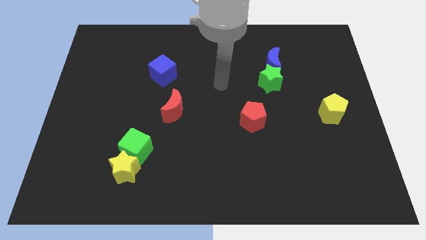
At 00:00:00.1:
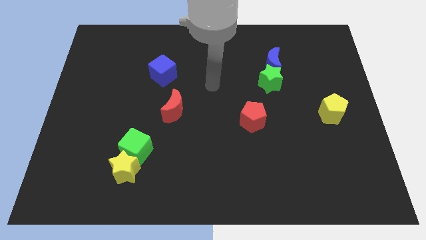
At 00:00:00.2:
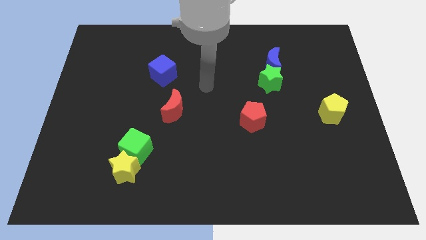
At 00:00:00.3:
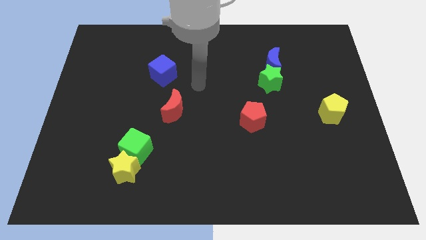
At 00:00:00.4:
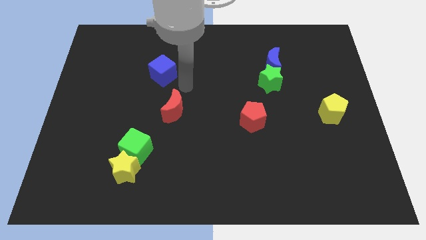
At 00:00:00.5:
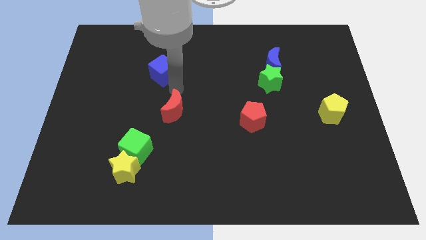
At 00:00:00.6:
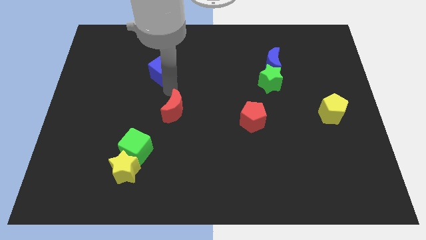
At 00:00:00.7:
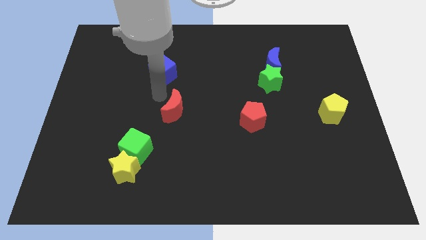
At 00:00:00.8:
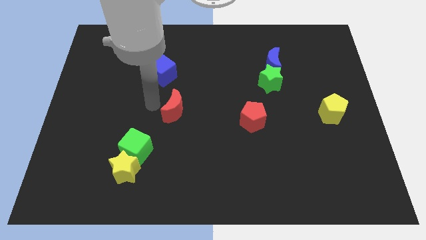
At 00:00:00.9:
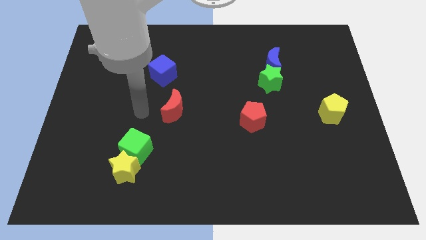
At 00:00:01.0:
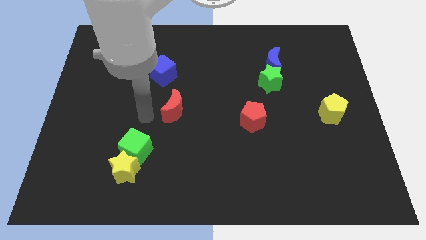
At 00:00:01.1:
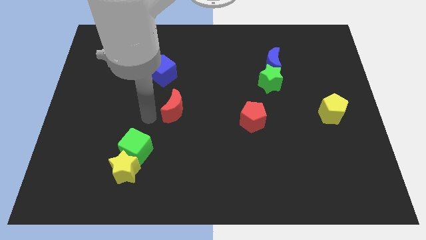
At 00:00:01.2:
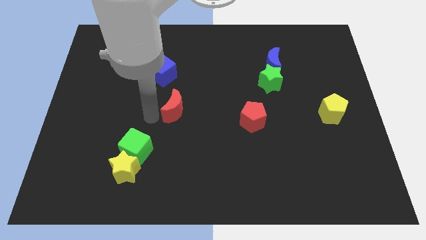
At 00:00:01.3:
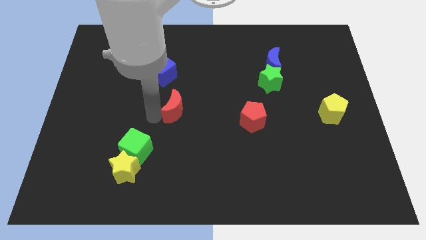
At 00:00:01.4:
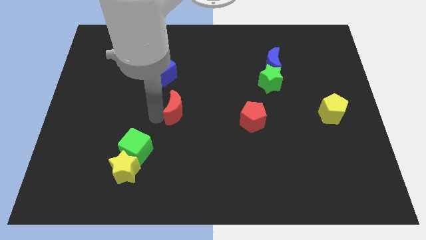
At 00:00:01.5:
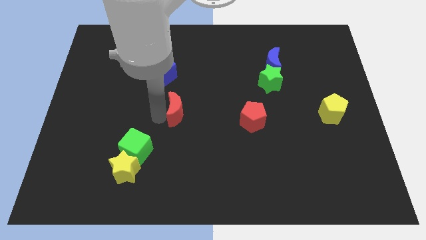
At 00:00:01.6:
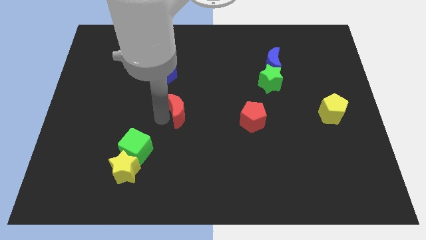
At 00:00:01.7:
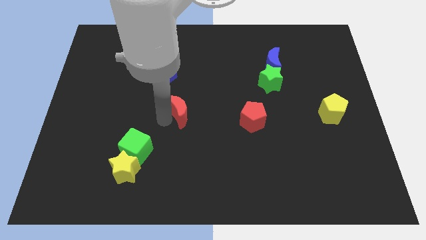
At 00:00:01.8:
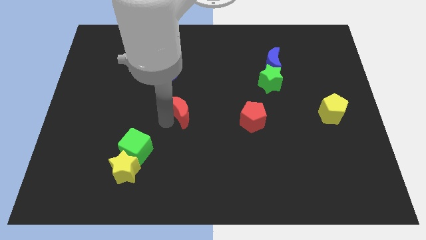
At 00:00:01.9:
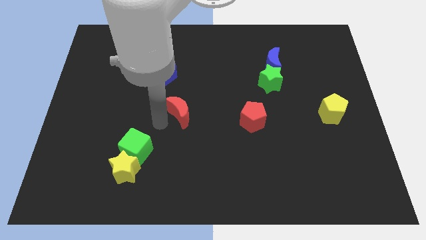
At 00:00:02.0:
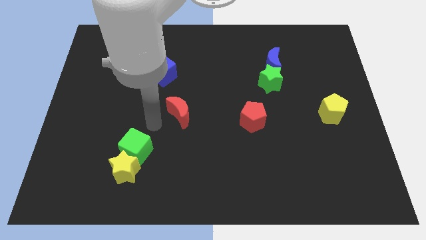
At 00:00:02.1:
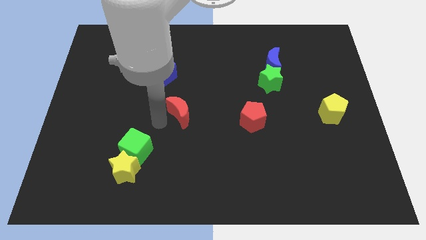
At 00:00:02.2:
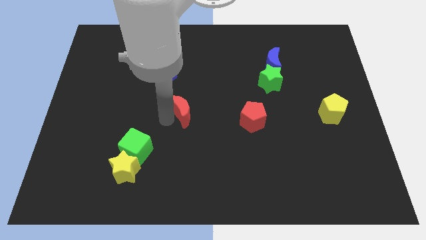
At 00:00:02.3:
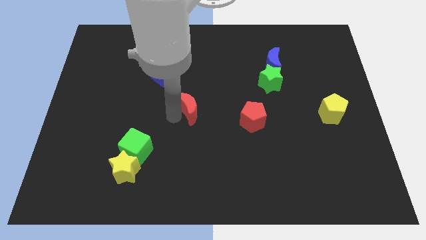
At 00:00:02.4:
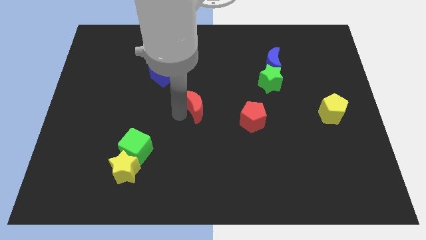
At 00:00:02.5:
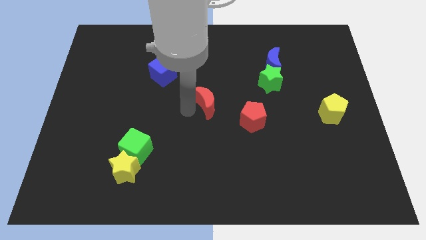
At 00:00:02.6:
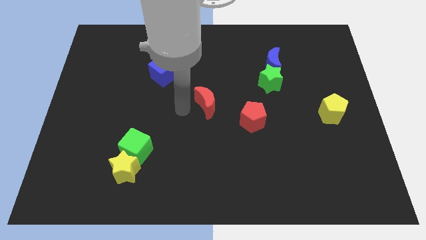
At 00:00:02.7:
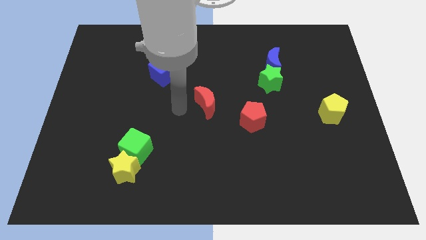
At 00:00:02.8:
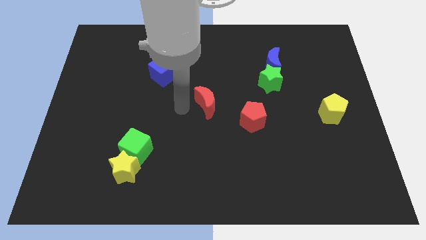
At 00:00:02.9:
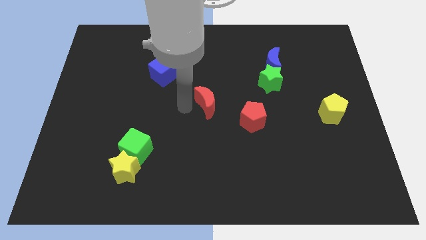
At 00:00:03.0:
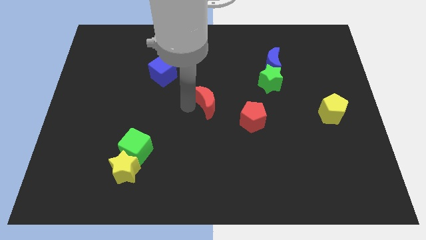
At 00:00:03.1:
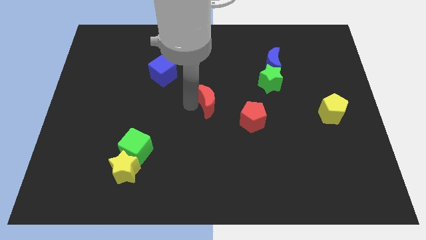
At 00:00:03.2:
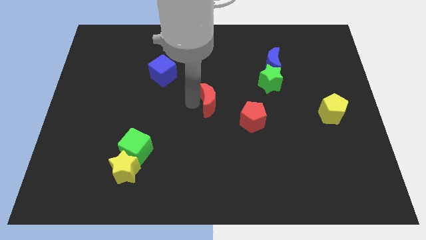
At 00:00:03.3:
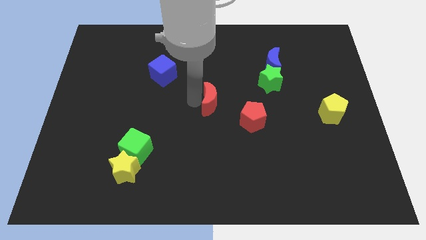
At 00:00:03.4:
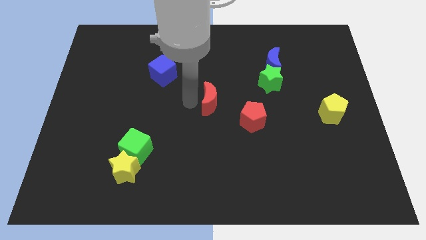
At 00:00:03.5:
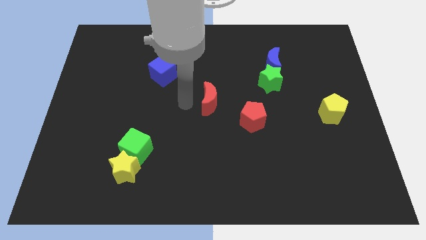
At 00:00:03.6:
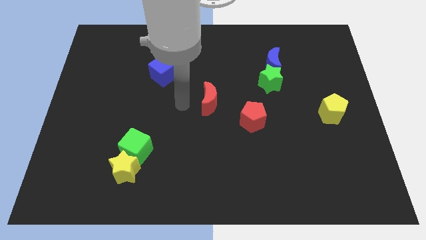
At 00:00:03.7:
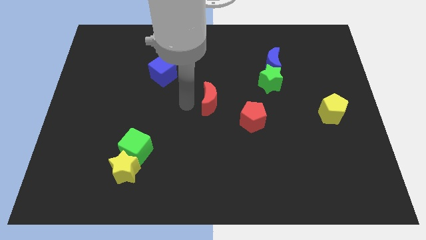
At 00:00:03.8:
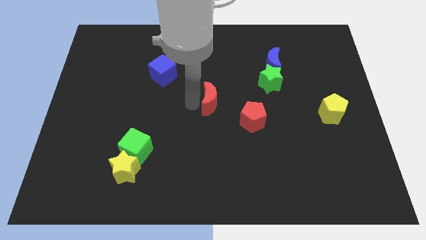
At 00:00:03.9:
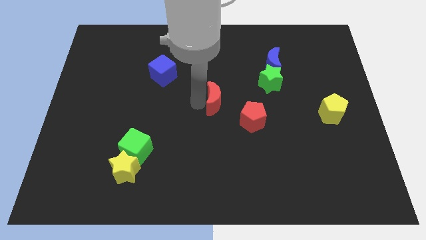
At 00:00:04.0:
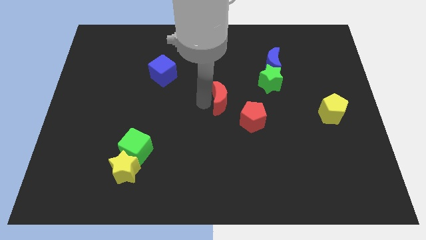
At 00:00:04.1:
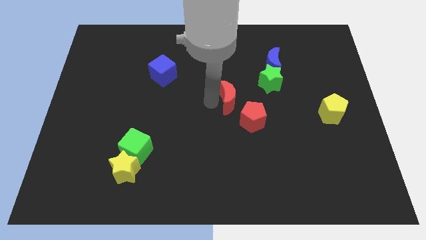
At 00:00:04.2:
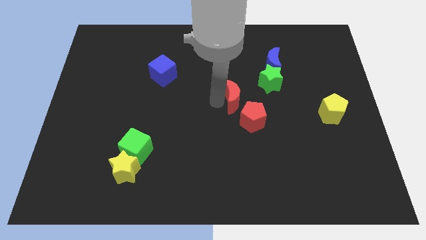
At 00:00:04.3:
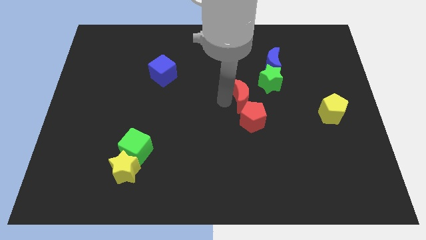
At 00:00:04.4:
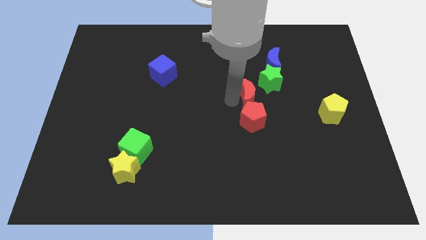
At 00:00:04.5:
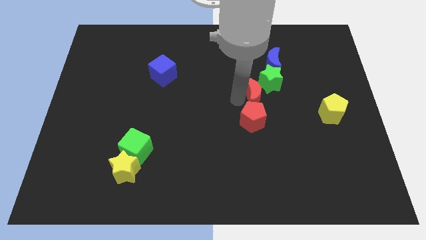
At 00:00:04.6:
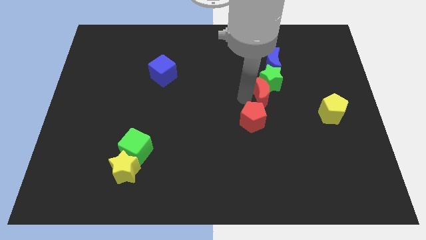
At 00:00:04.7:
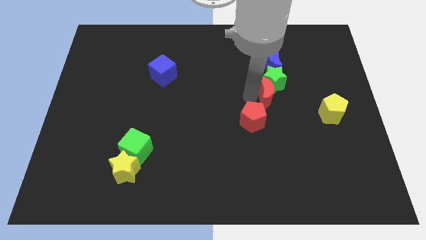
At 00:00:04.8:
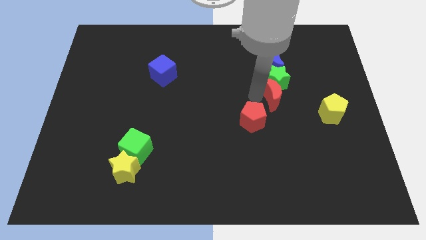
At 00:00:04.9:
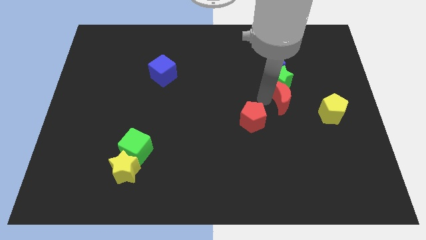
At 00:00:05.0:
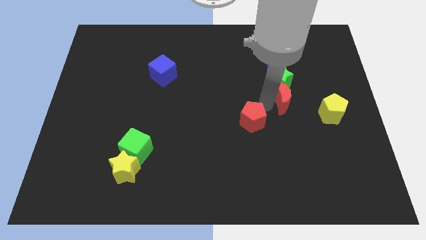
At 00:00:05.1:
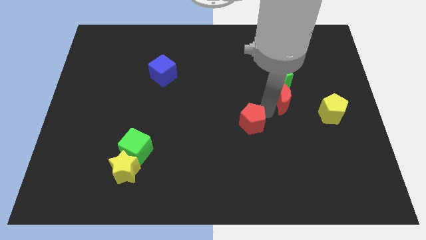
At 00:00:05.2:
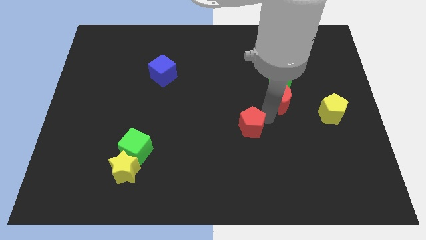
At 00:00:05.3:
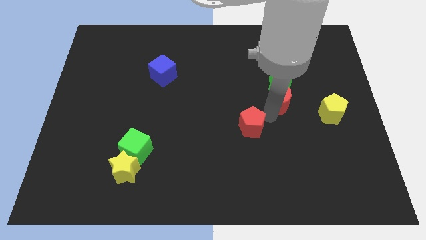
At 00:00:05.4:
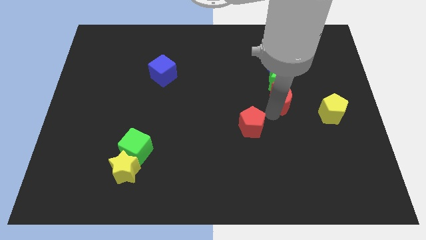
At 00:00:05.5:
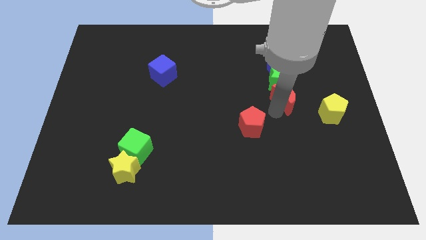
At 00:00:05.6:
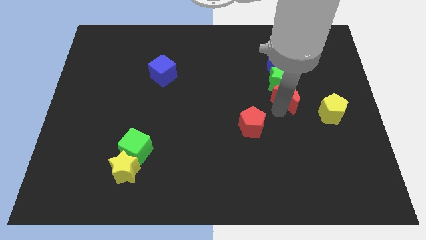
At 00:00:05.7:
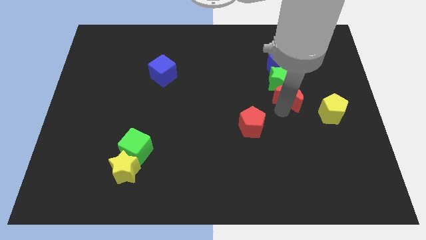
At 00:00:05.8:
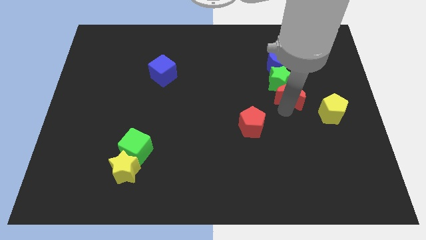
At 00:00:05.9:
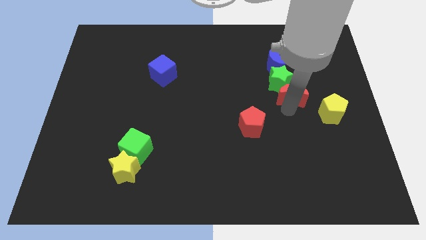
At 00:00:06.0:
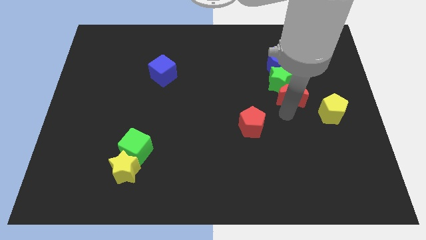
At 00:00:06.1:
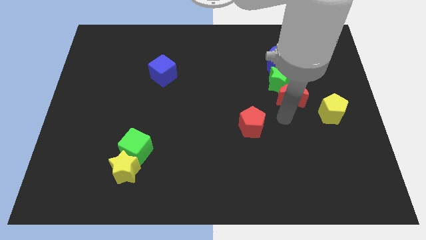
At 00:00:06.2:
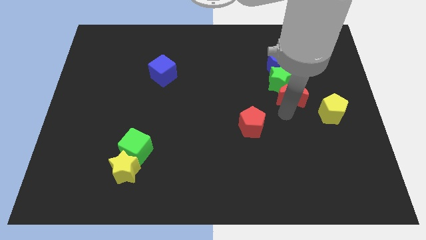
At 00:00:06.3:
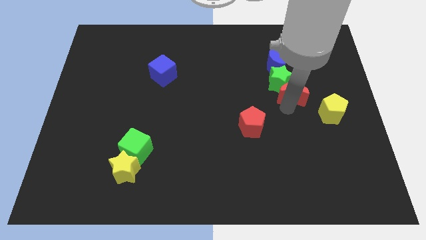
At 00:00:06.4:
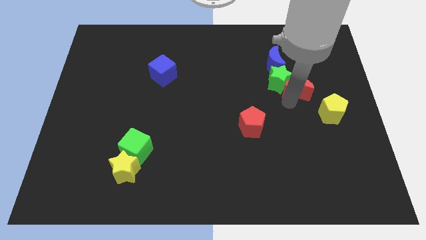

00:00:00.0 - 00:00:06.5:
move the red moon to the bottom right side of the blue moon

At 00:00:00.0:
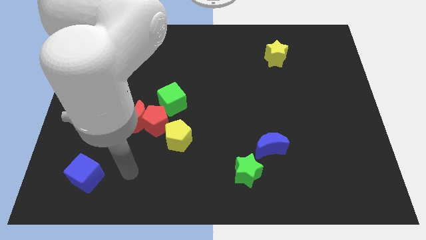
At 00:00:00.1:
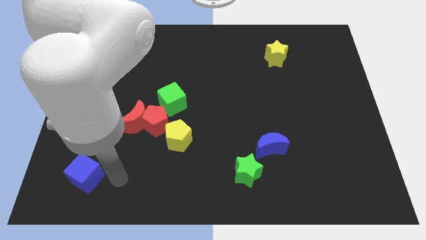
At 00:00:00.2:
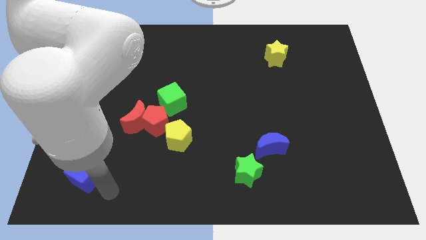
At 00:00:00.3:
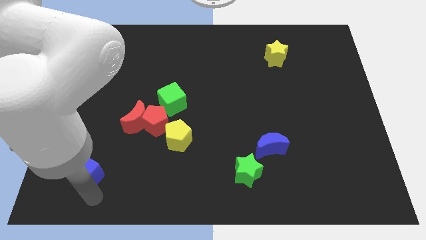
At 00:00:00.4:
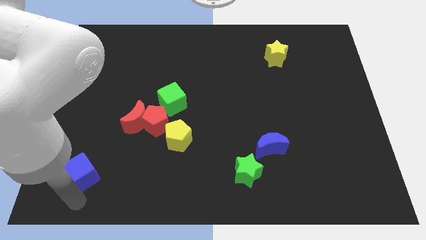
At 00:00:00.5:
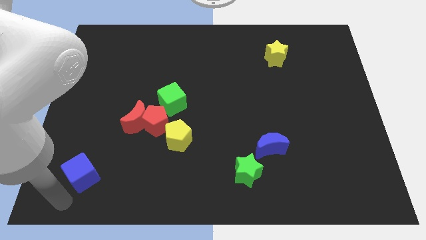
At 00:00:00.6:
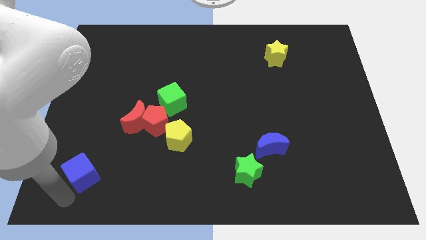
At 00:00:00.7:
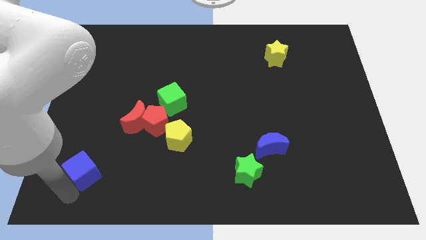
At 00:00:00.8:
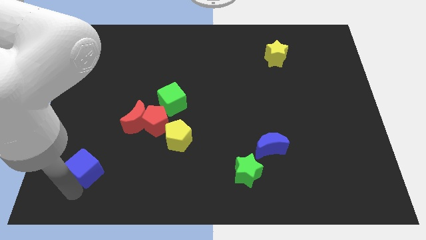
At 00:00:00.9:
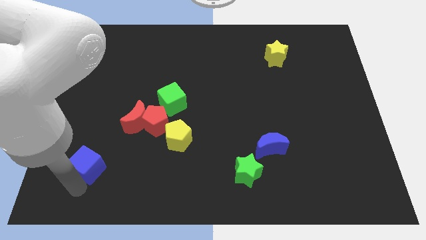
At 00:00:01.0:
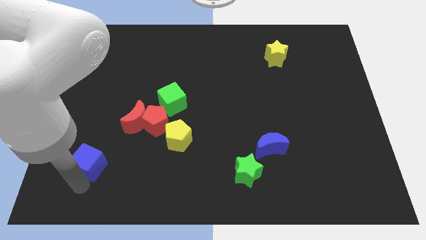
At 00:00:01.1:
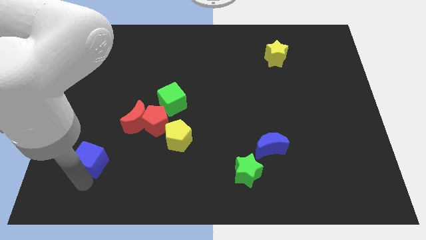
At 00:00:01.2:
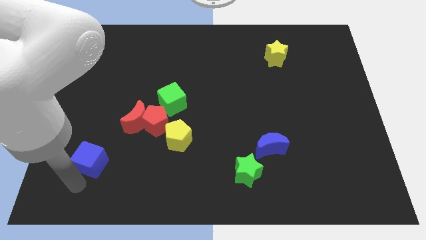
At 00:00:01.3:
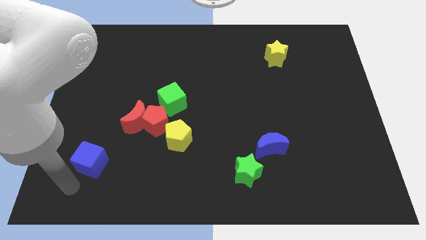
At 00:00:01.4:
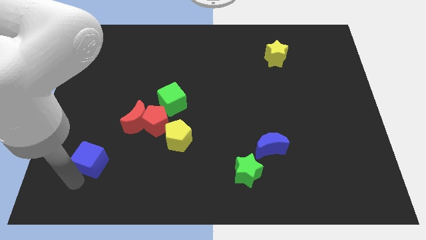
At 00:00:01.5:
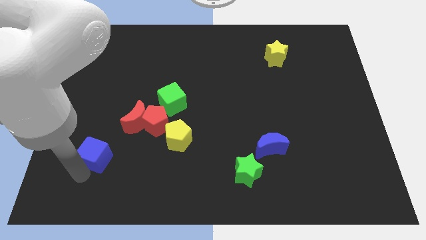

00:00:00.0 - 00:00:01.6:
slide the blue cube to the bottom left of the red moon
